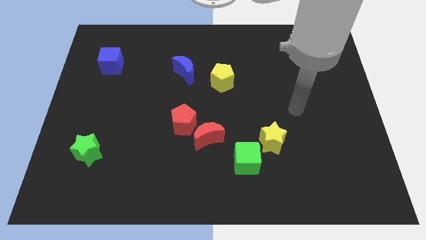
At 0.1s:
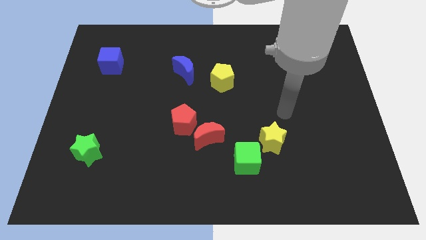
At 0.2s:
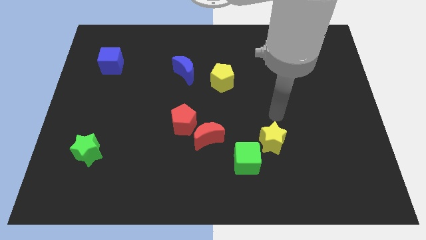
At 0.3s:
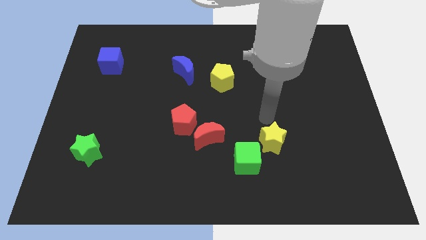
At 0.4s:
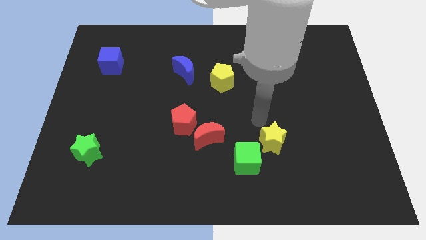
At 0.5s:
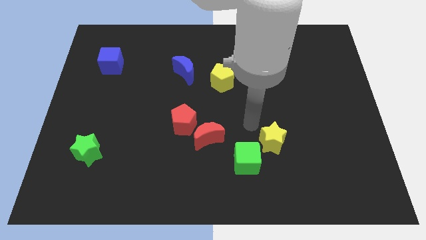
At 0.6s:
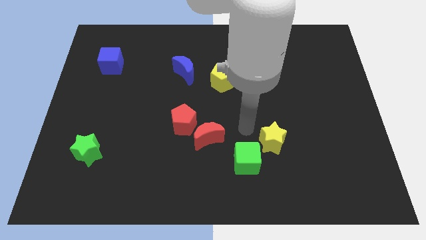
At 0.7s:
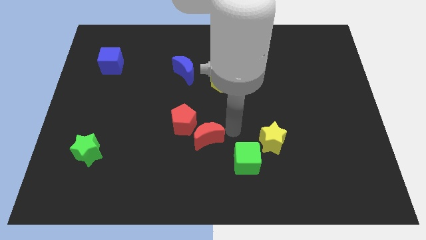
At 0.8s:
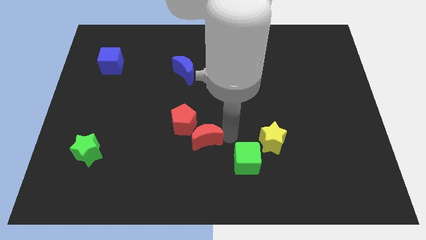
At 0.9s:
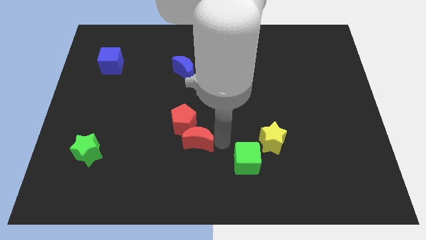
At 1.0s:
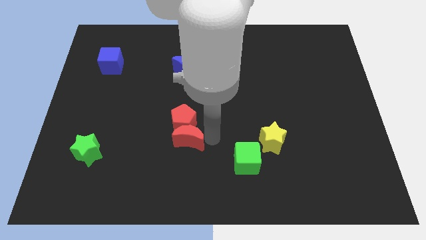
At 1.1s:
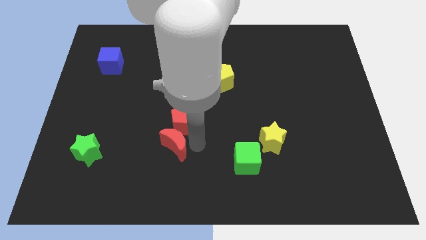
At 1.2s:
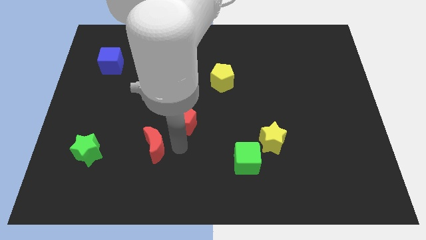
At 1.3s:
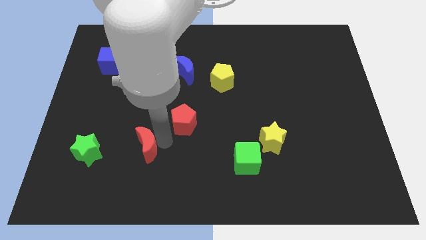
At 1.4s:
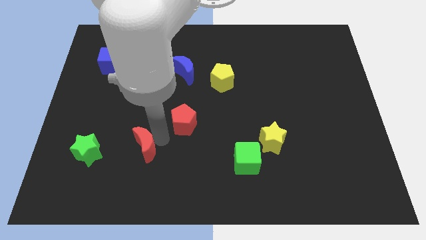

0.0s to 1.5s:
pull the red pentagon apart from the red moon

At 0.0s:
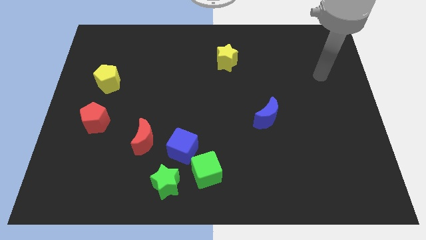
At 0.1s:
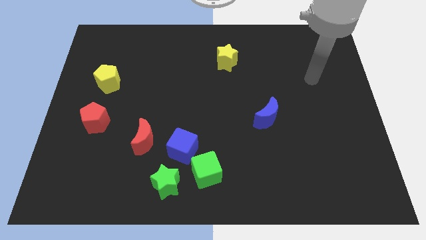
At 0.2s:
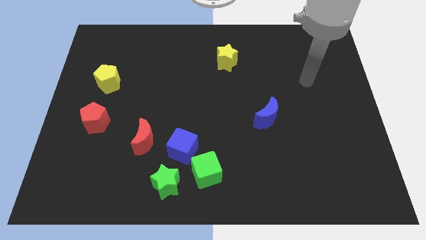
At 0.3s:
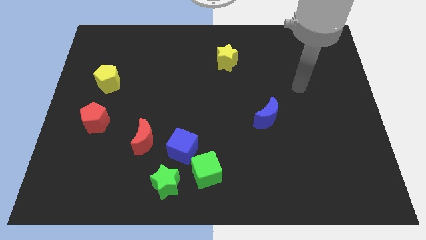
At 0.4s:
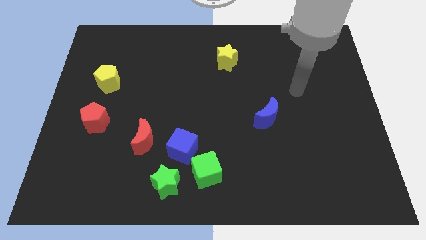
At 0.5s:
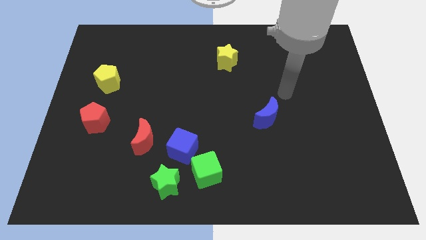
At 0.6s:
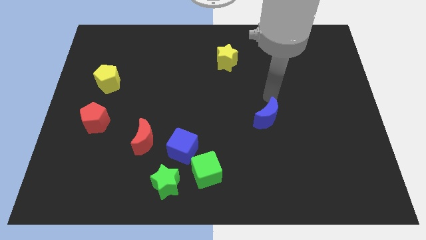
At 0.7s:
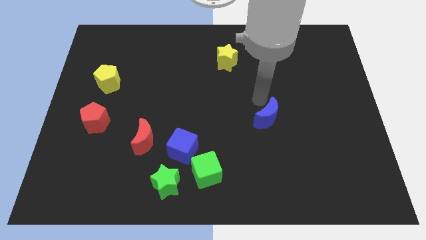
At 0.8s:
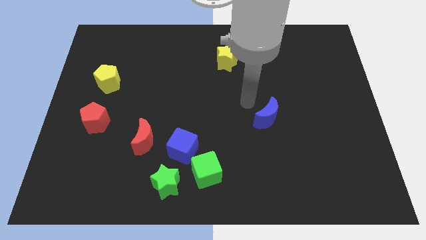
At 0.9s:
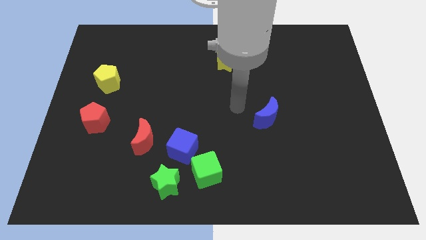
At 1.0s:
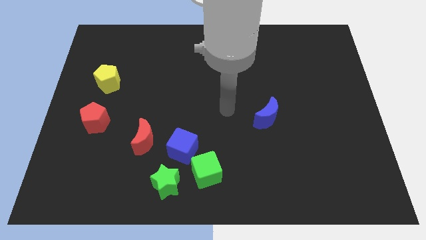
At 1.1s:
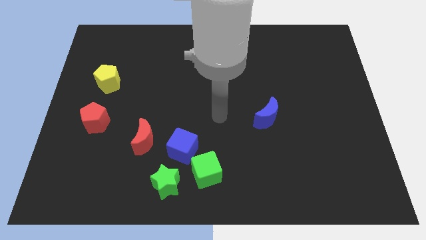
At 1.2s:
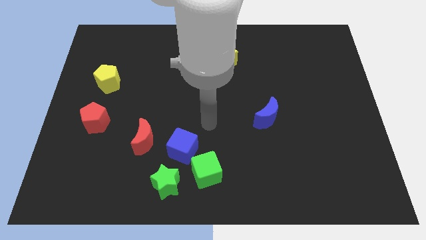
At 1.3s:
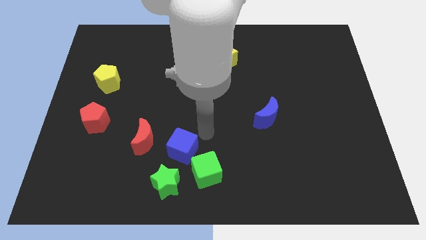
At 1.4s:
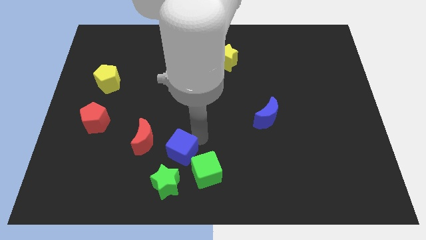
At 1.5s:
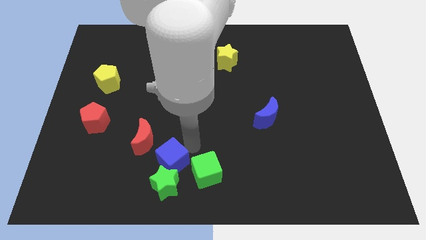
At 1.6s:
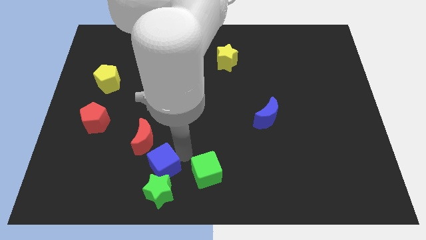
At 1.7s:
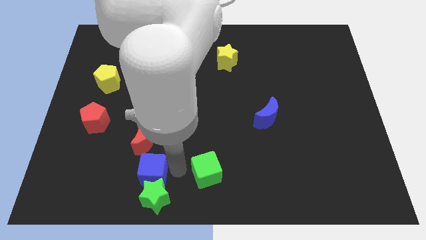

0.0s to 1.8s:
move the green cube away from the blue cube and green star

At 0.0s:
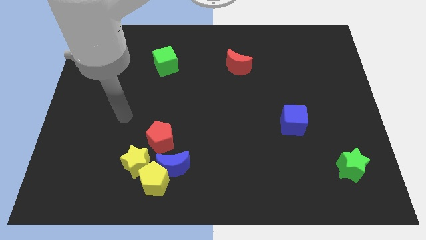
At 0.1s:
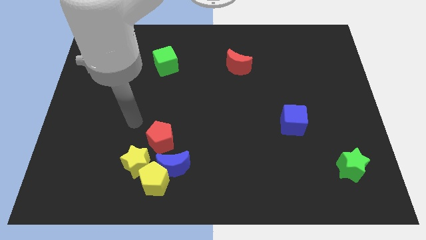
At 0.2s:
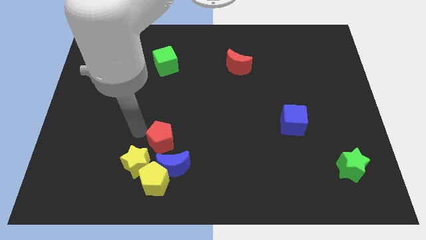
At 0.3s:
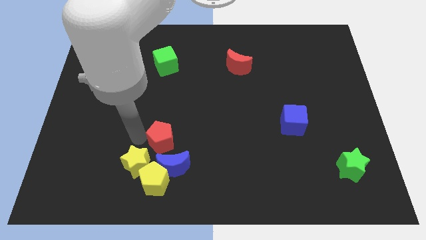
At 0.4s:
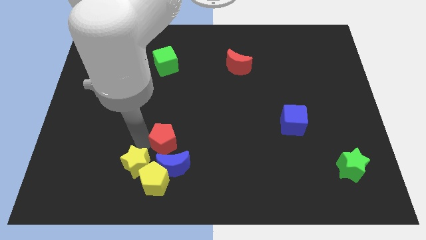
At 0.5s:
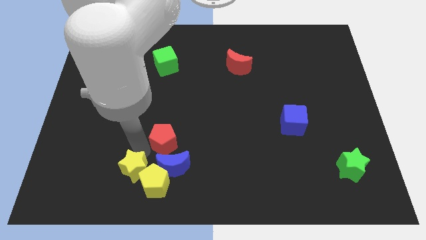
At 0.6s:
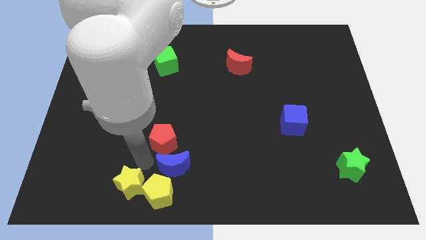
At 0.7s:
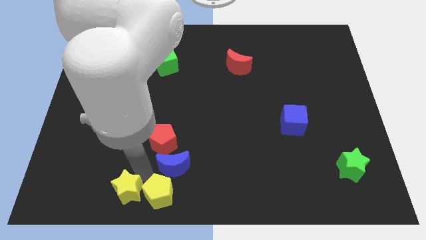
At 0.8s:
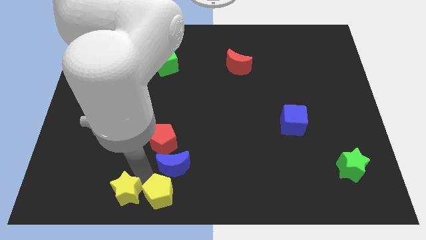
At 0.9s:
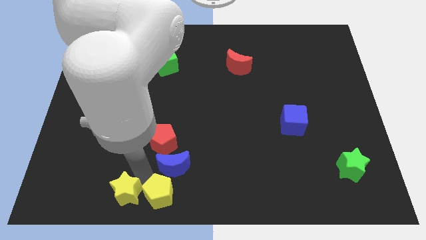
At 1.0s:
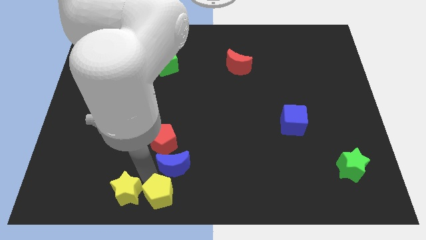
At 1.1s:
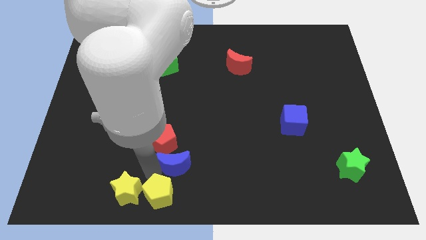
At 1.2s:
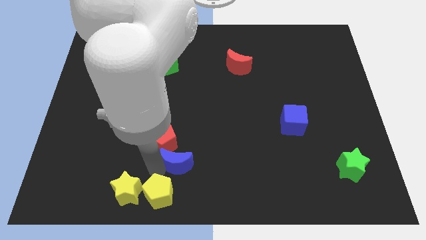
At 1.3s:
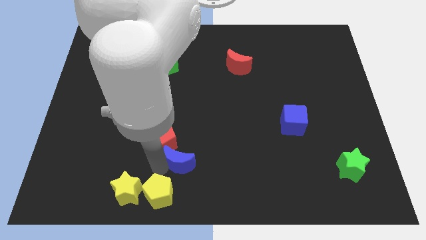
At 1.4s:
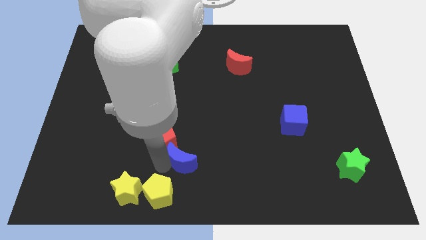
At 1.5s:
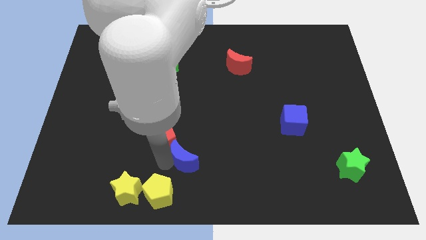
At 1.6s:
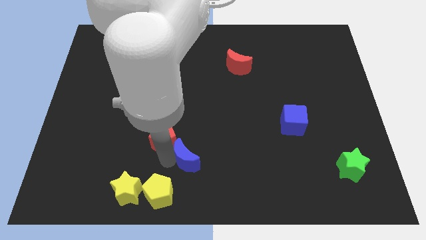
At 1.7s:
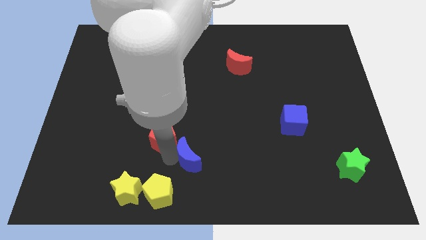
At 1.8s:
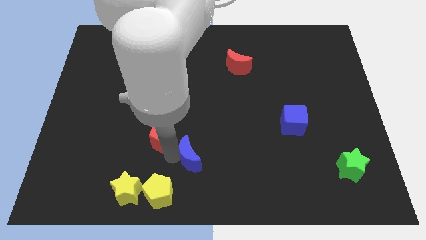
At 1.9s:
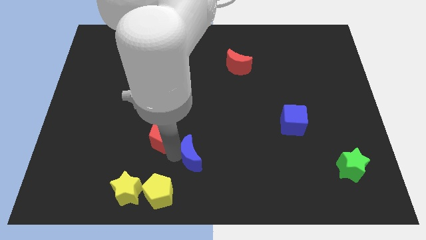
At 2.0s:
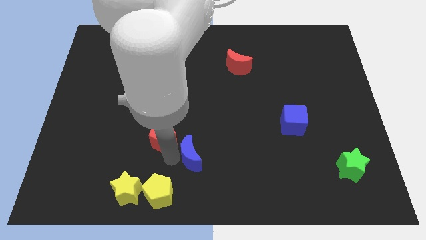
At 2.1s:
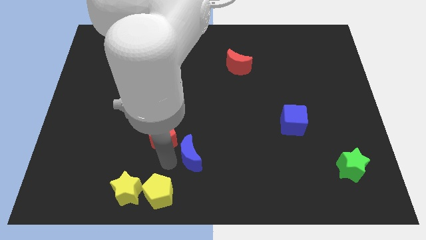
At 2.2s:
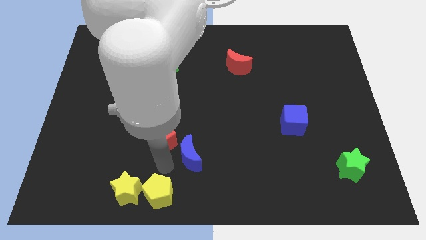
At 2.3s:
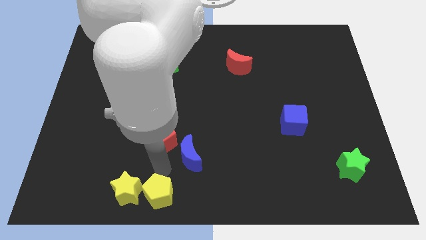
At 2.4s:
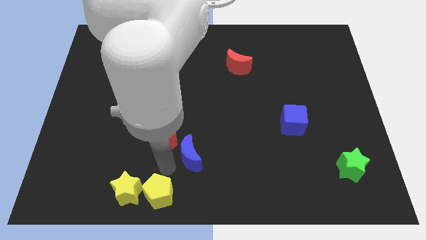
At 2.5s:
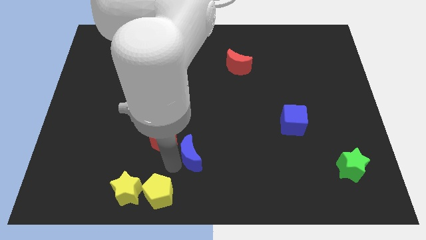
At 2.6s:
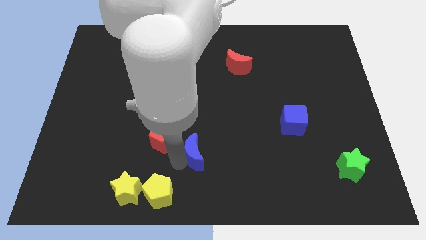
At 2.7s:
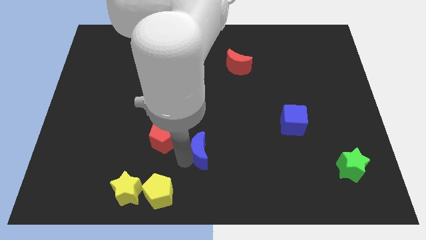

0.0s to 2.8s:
separate the blue moon from the yellow pentagon, red pentagon, and yellow star

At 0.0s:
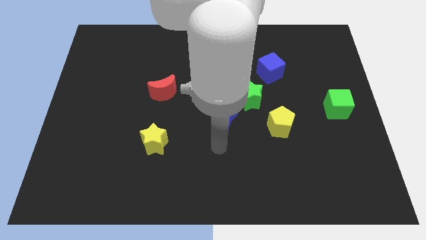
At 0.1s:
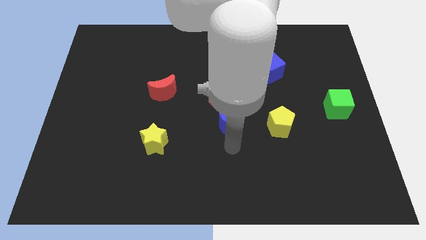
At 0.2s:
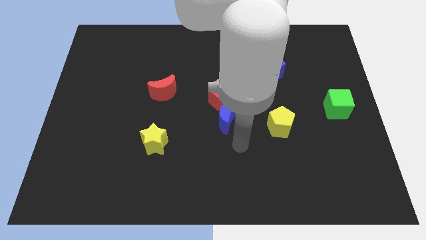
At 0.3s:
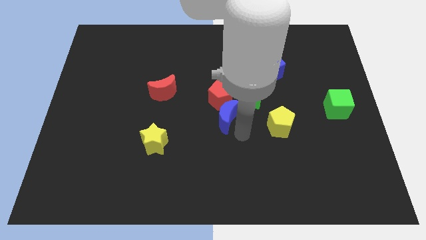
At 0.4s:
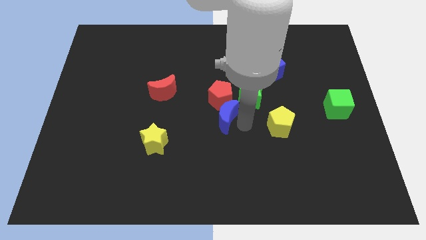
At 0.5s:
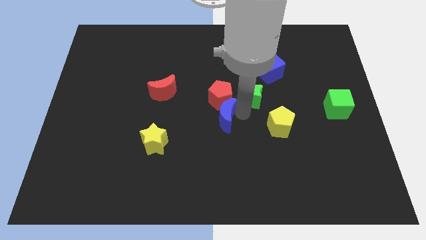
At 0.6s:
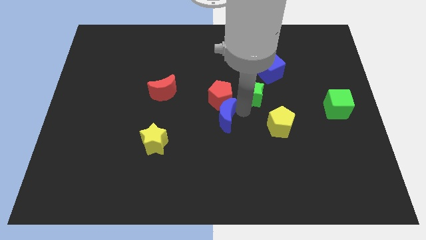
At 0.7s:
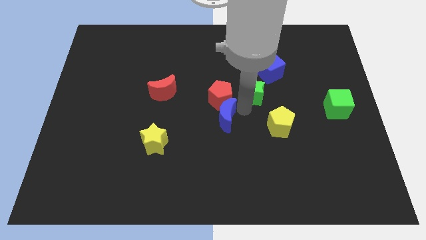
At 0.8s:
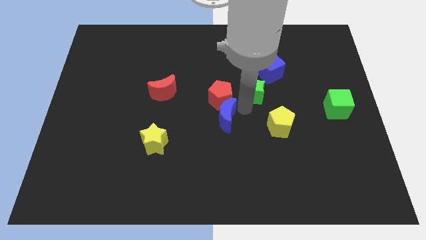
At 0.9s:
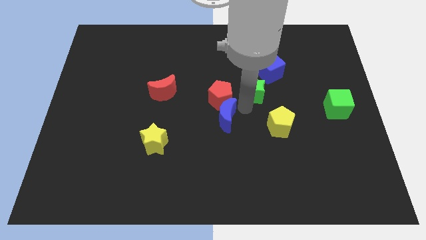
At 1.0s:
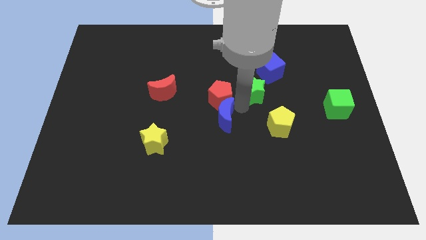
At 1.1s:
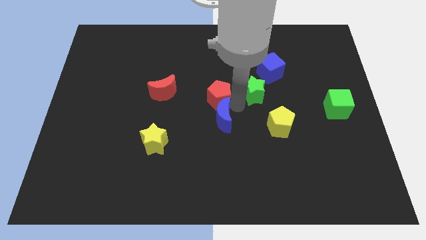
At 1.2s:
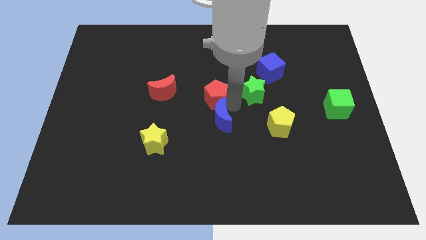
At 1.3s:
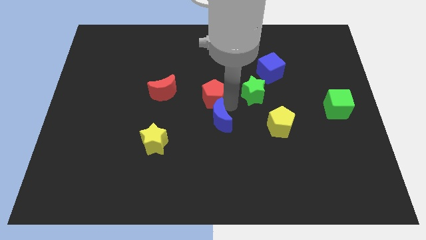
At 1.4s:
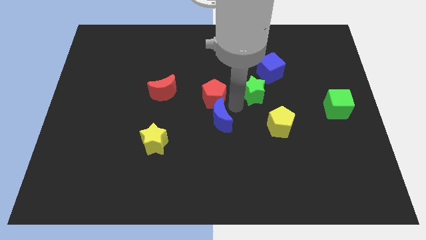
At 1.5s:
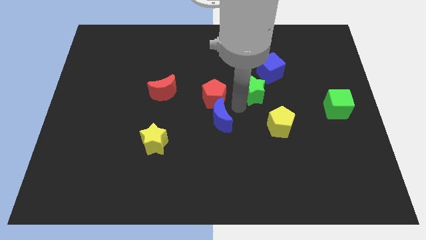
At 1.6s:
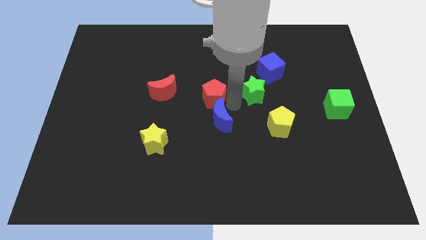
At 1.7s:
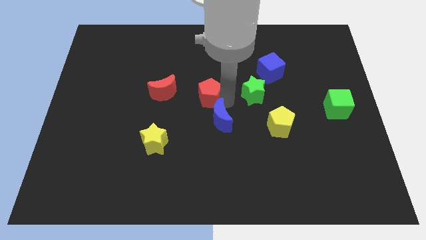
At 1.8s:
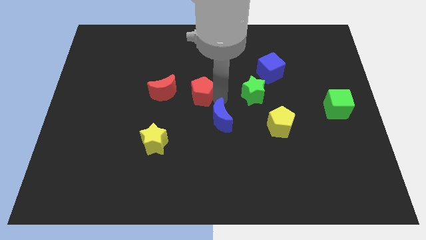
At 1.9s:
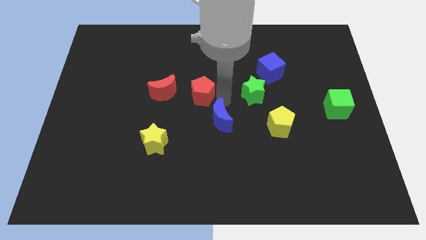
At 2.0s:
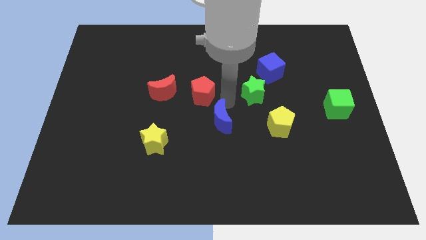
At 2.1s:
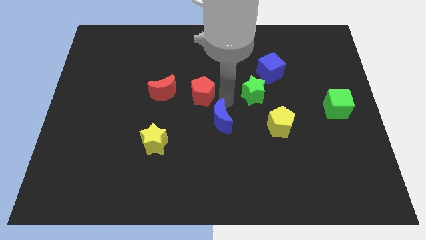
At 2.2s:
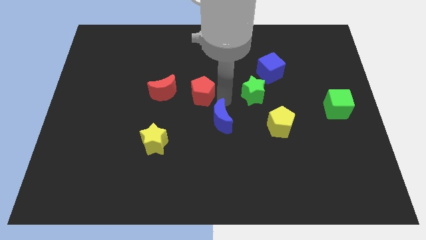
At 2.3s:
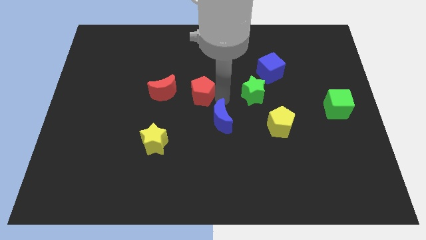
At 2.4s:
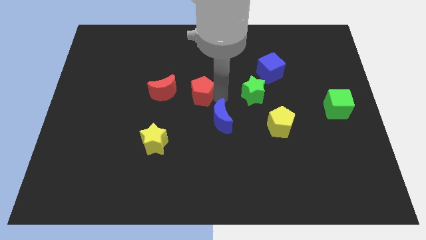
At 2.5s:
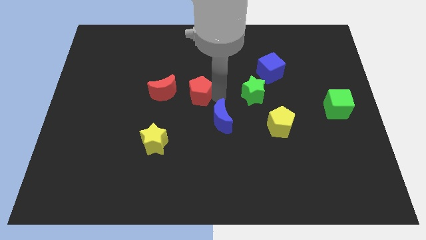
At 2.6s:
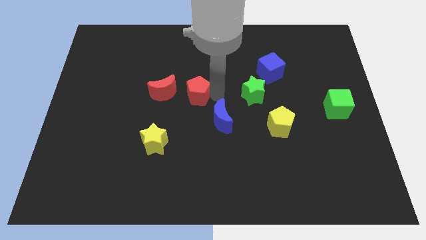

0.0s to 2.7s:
pull the red pentagon apart from the blue moon and green star

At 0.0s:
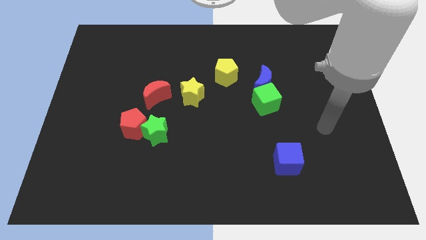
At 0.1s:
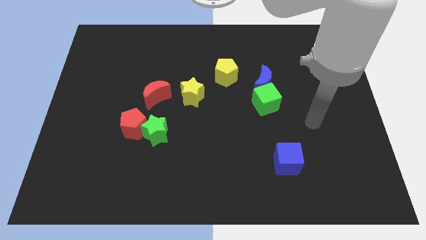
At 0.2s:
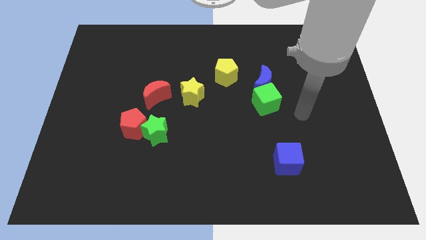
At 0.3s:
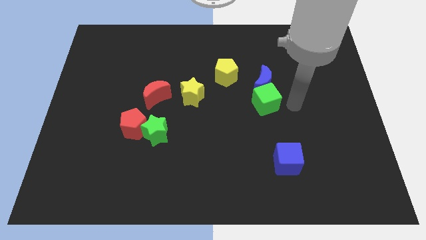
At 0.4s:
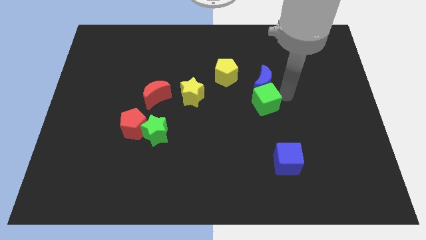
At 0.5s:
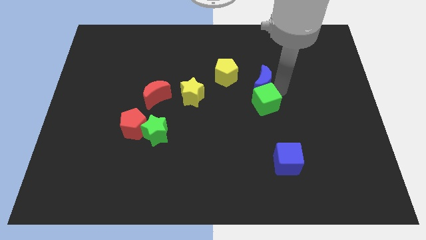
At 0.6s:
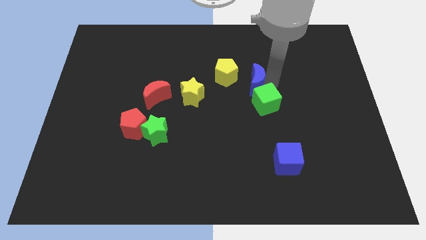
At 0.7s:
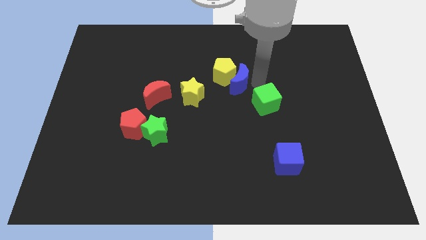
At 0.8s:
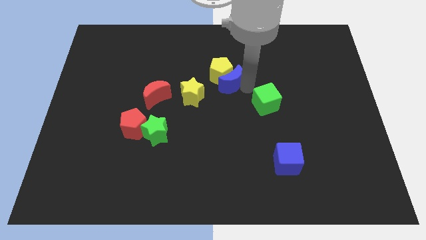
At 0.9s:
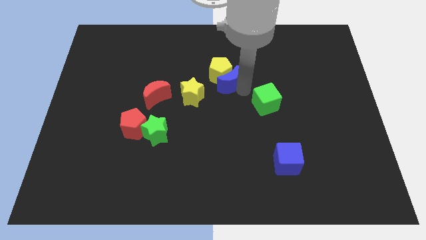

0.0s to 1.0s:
move the green cube away from the blue moon
